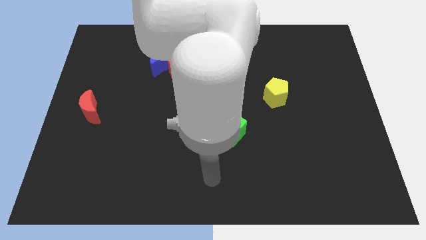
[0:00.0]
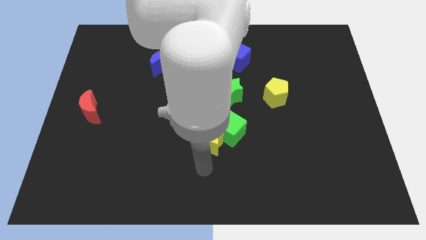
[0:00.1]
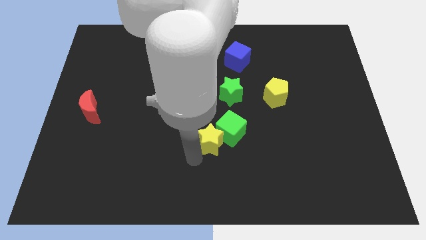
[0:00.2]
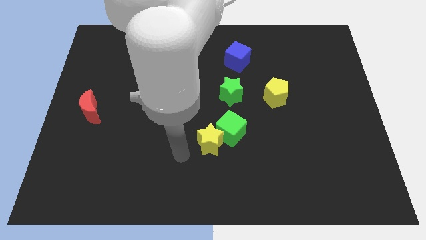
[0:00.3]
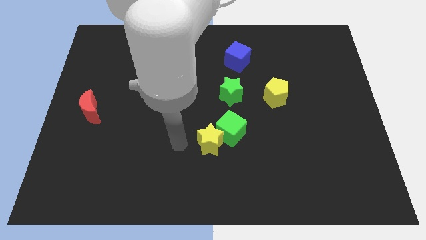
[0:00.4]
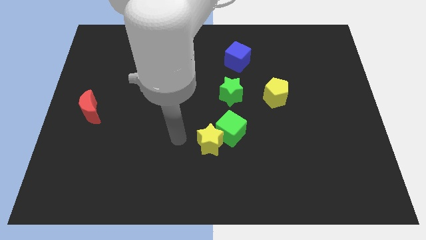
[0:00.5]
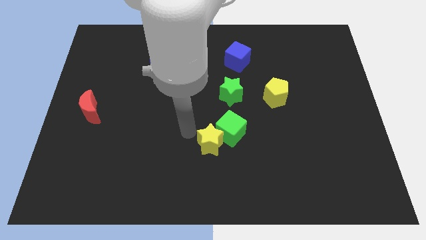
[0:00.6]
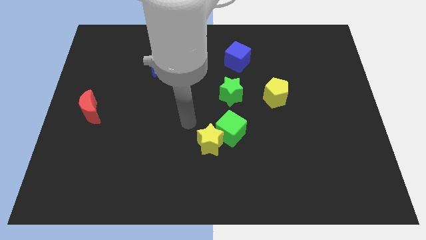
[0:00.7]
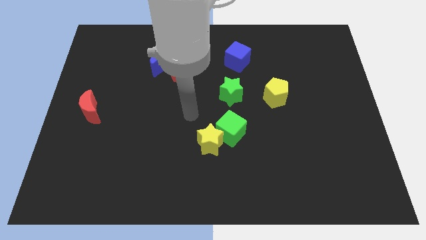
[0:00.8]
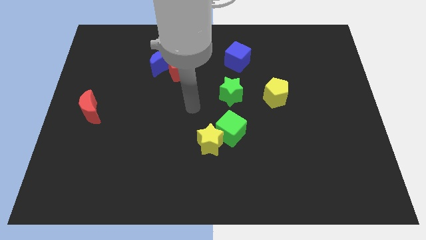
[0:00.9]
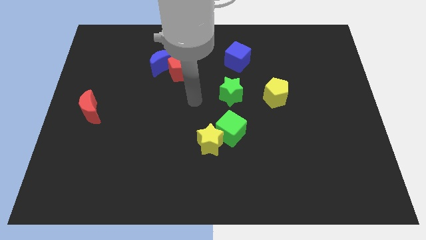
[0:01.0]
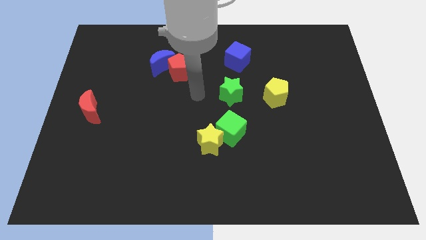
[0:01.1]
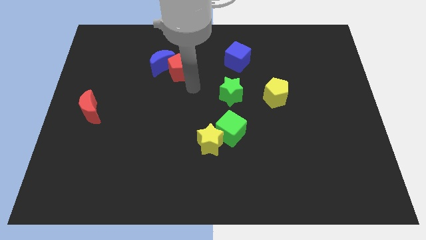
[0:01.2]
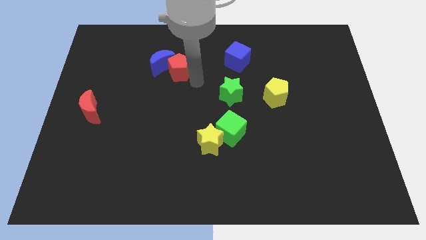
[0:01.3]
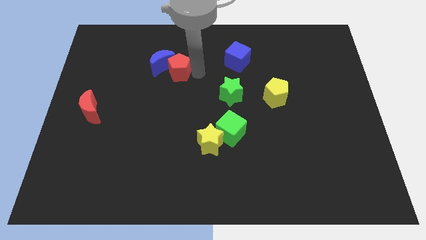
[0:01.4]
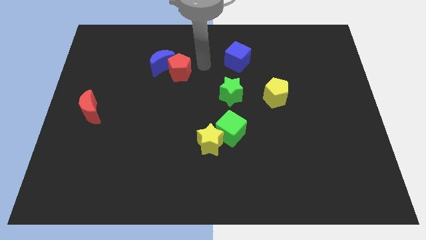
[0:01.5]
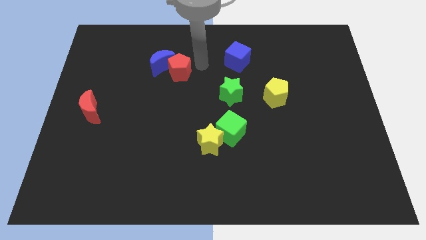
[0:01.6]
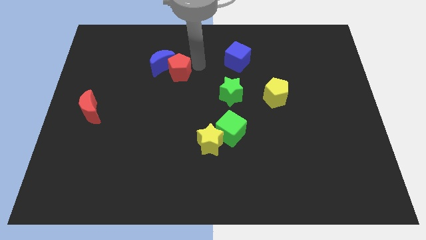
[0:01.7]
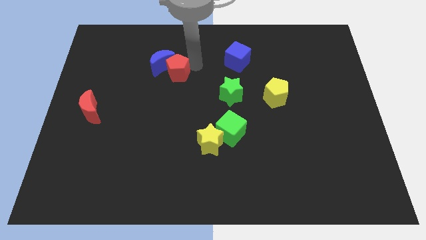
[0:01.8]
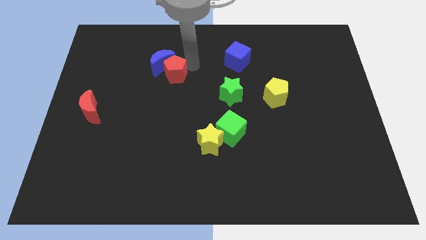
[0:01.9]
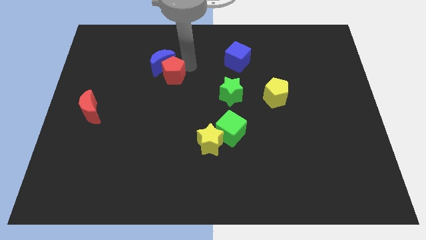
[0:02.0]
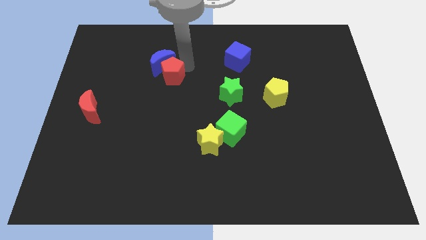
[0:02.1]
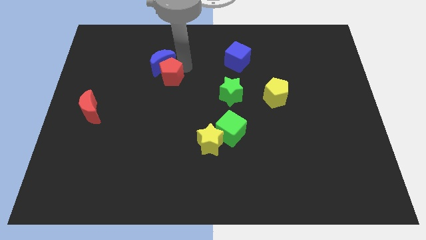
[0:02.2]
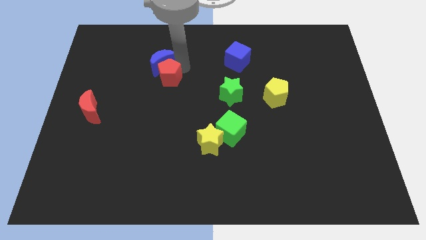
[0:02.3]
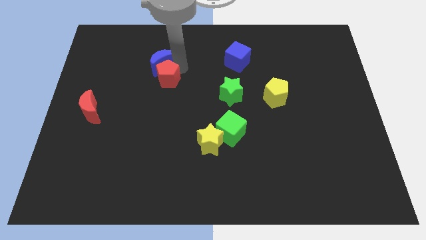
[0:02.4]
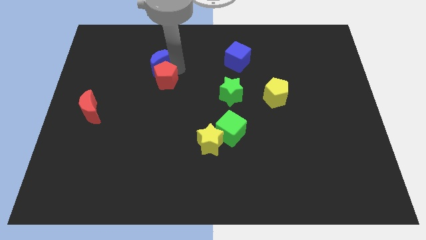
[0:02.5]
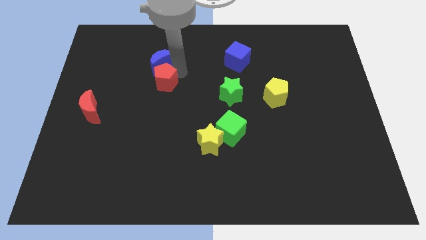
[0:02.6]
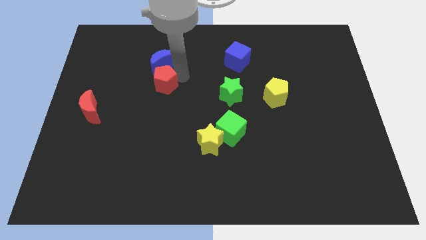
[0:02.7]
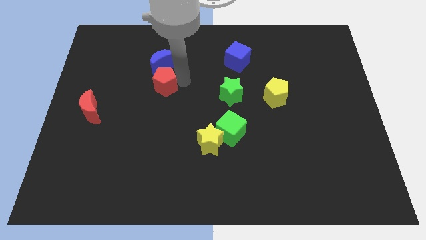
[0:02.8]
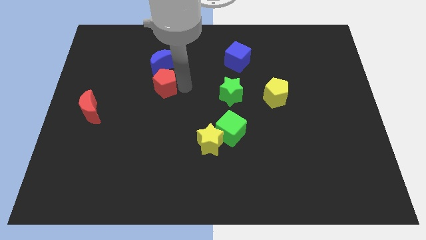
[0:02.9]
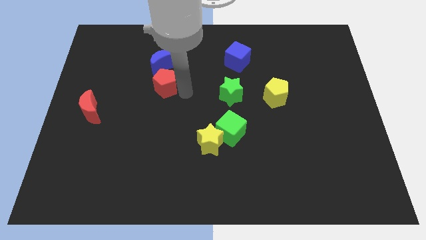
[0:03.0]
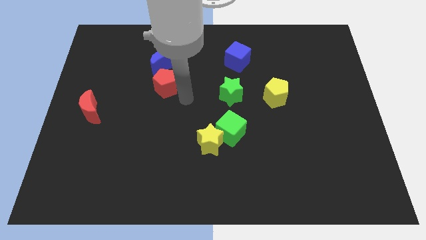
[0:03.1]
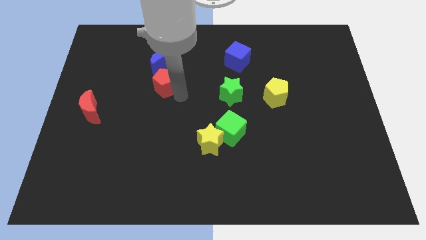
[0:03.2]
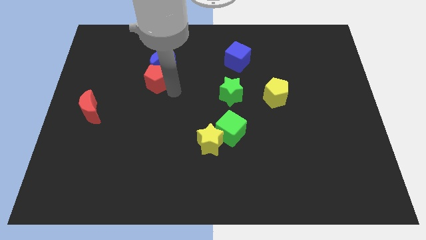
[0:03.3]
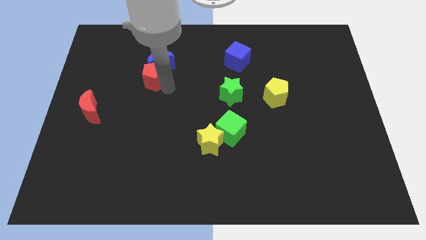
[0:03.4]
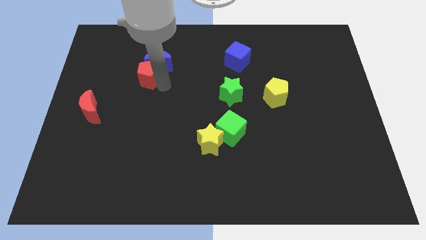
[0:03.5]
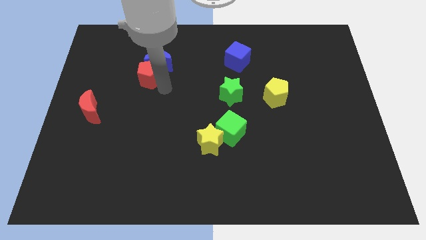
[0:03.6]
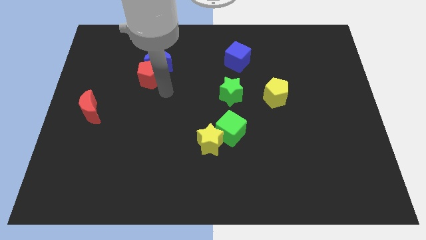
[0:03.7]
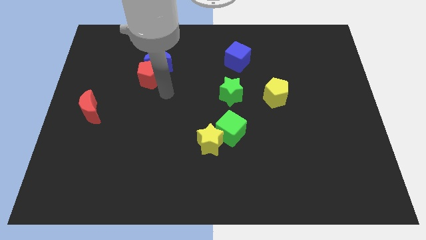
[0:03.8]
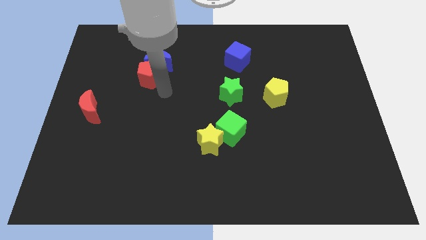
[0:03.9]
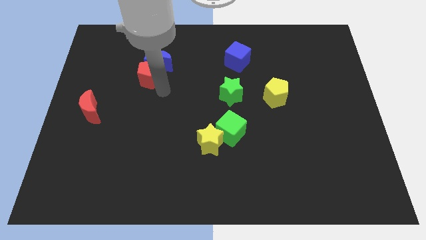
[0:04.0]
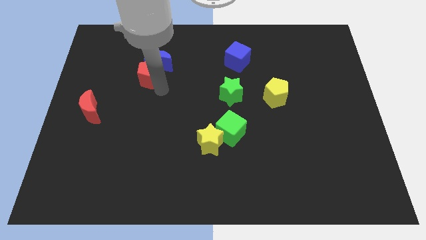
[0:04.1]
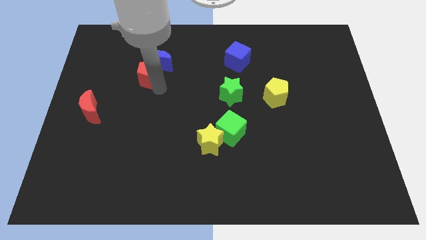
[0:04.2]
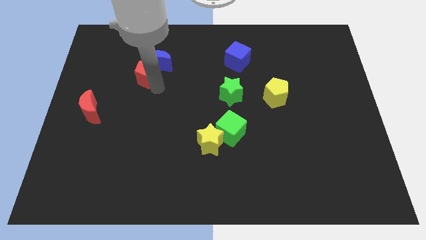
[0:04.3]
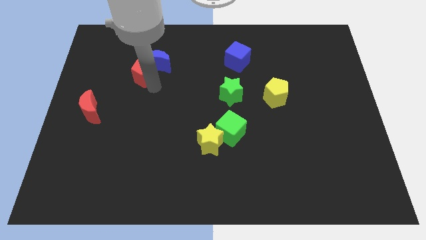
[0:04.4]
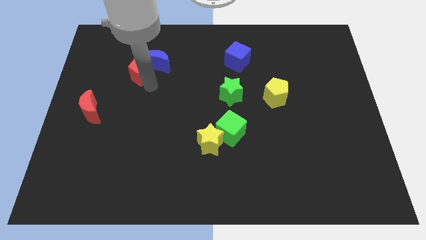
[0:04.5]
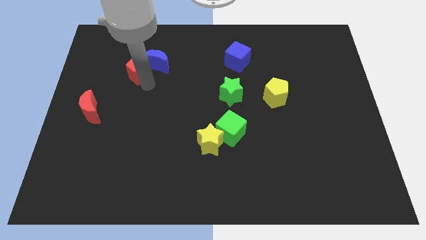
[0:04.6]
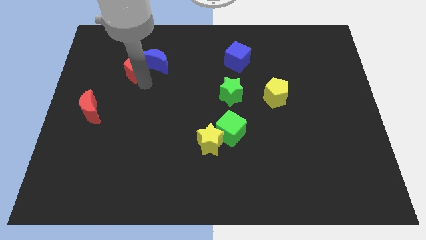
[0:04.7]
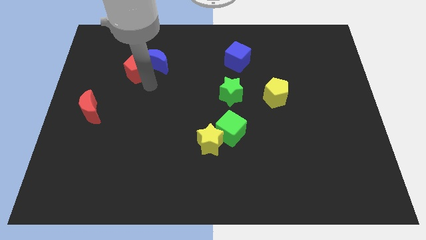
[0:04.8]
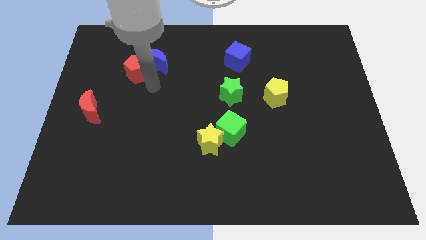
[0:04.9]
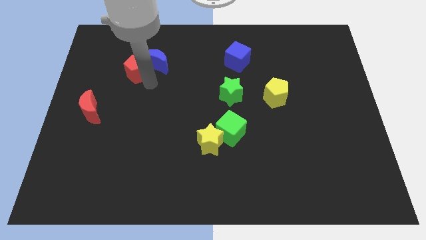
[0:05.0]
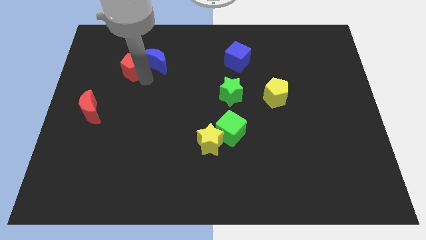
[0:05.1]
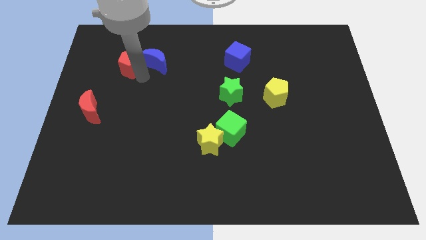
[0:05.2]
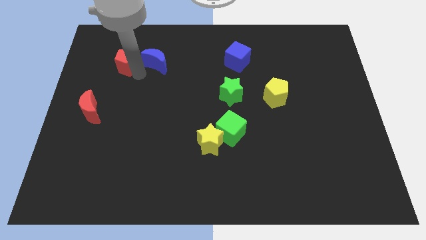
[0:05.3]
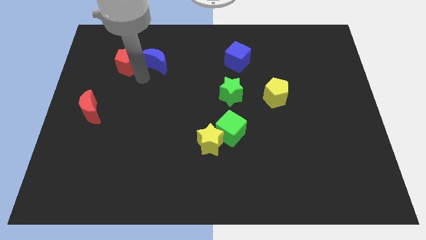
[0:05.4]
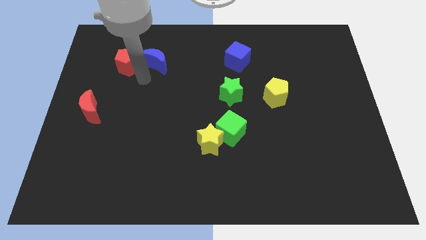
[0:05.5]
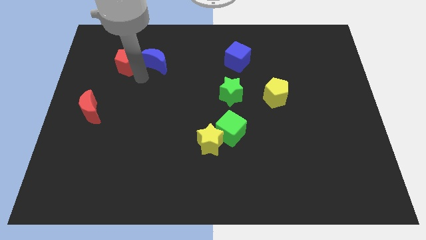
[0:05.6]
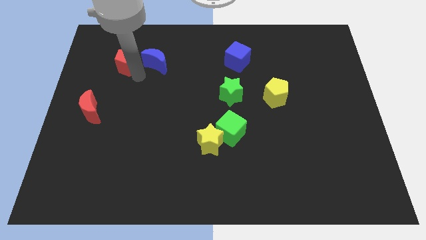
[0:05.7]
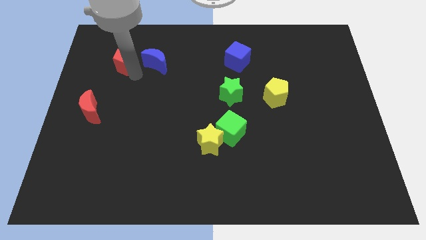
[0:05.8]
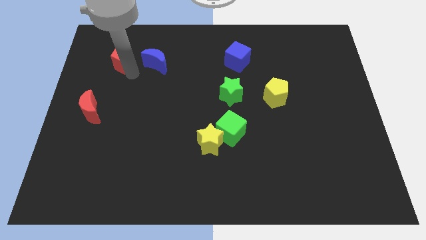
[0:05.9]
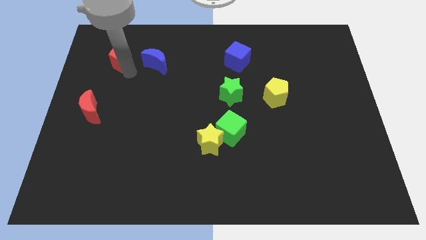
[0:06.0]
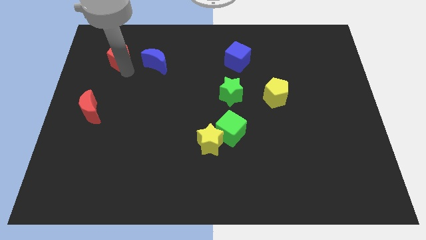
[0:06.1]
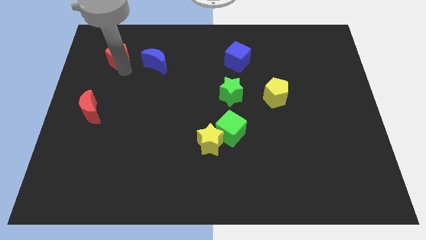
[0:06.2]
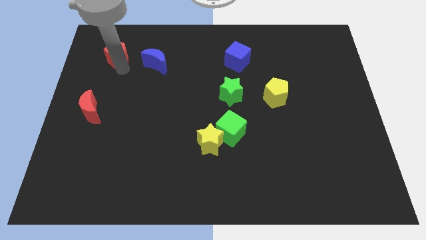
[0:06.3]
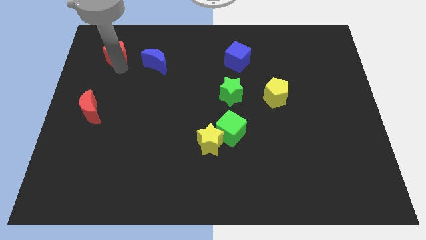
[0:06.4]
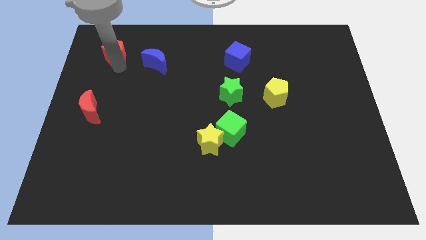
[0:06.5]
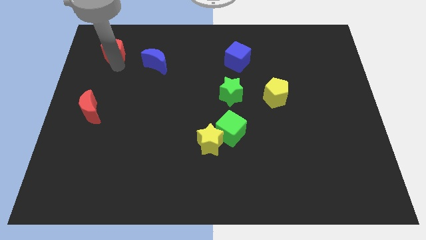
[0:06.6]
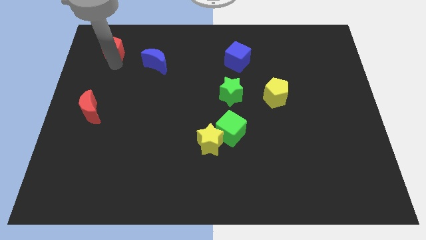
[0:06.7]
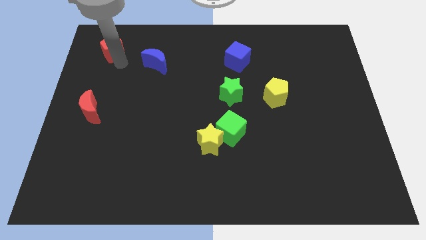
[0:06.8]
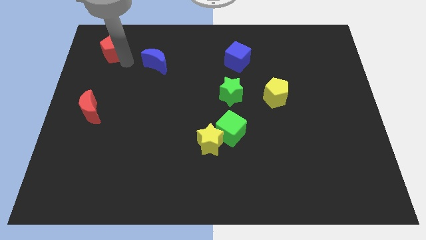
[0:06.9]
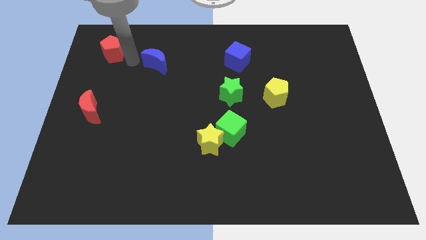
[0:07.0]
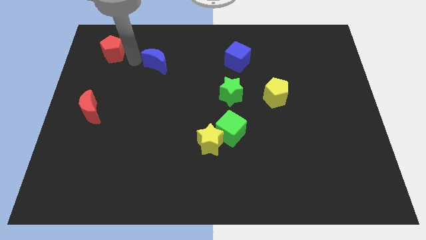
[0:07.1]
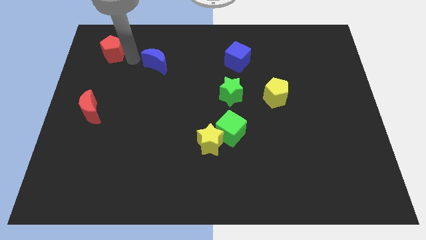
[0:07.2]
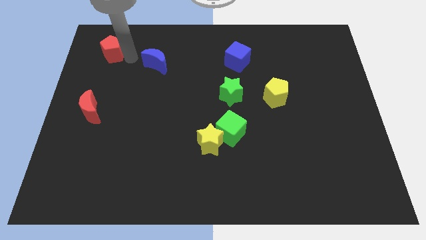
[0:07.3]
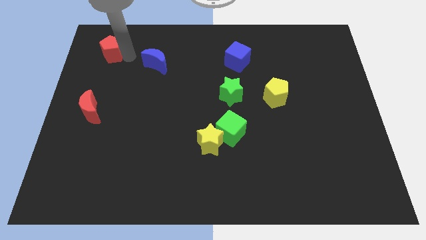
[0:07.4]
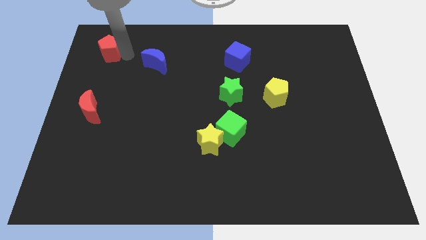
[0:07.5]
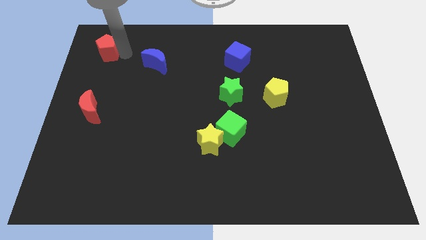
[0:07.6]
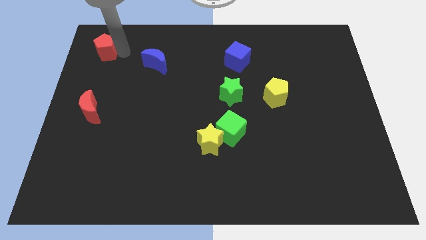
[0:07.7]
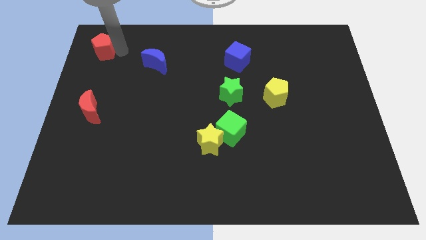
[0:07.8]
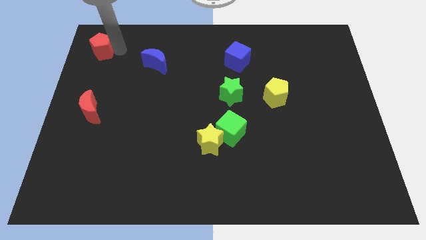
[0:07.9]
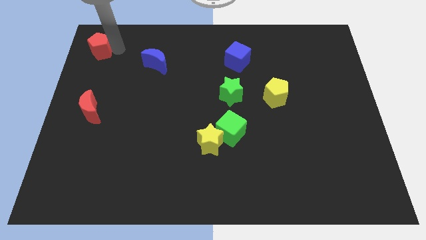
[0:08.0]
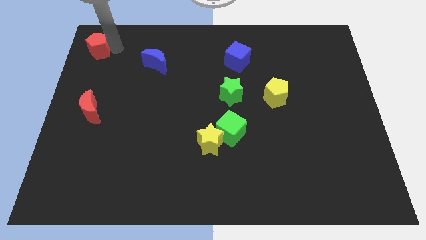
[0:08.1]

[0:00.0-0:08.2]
move the red pentagon to the top left
